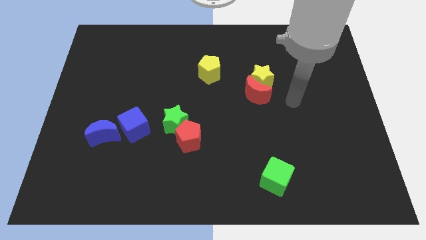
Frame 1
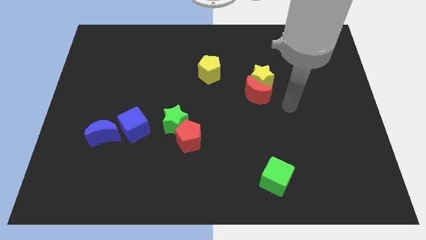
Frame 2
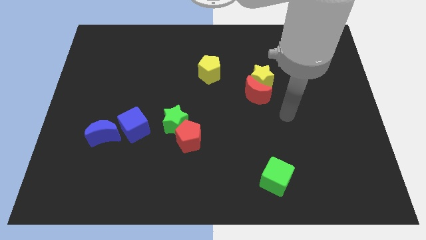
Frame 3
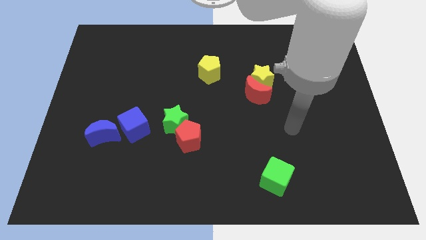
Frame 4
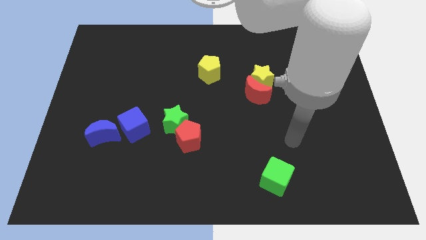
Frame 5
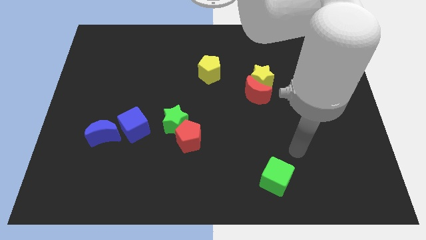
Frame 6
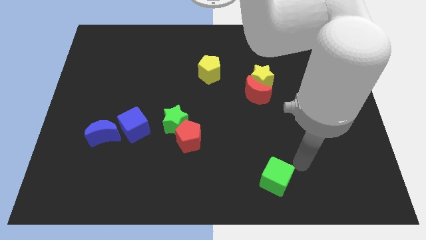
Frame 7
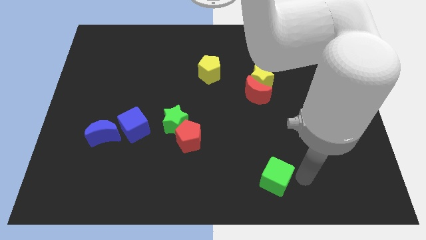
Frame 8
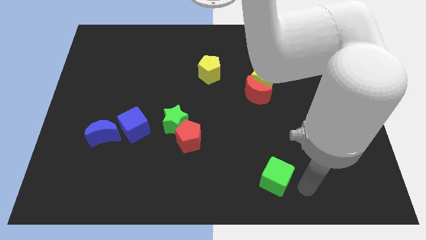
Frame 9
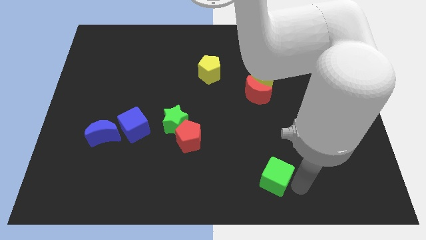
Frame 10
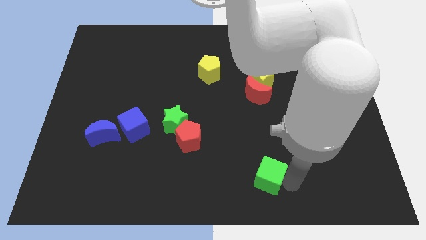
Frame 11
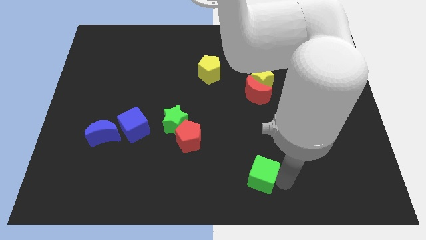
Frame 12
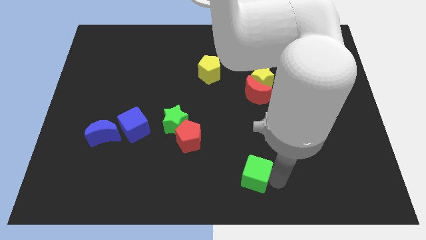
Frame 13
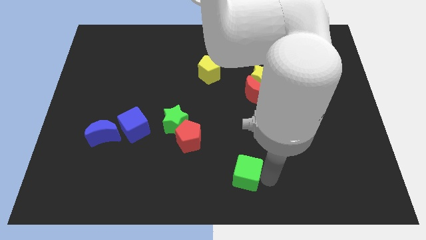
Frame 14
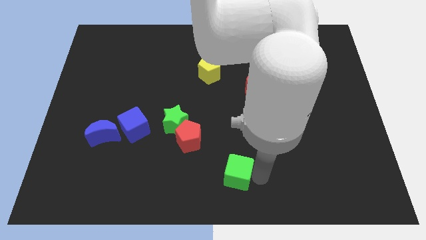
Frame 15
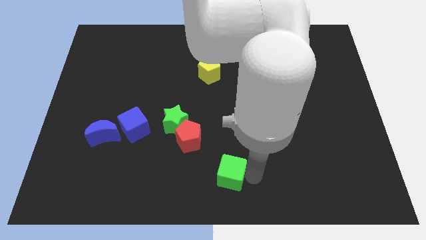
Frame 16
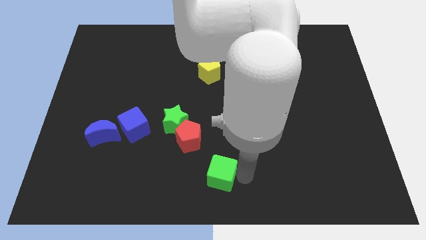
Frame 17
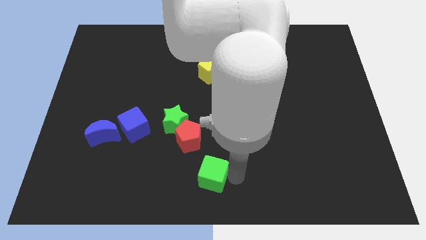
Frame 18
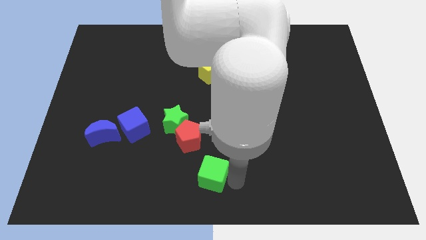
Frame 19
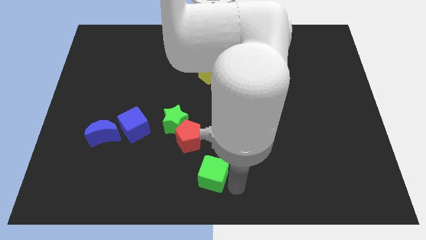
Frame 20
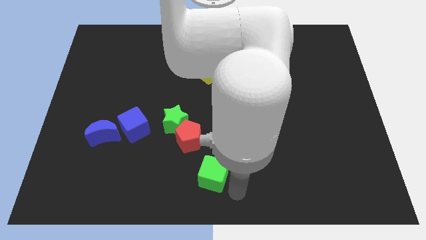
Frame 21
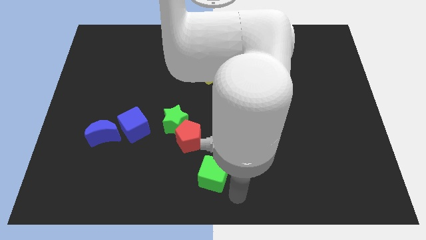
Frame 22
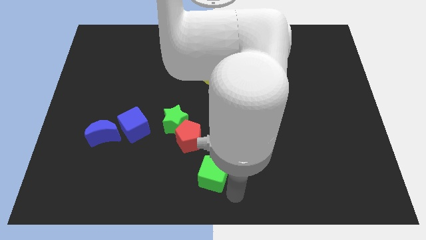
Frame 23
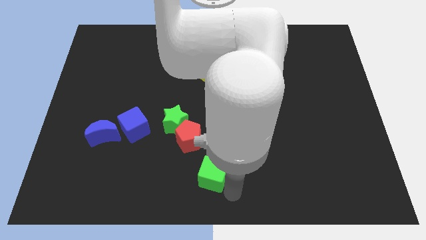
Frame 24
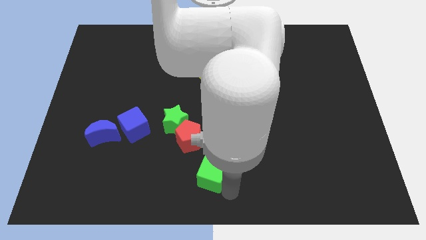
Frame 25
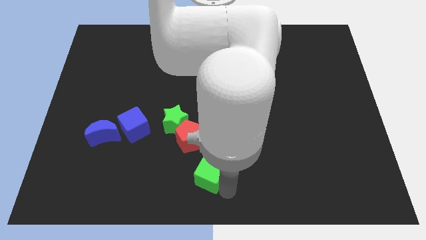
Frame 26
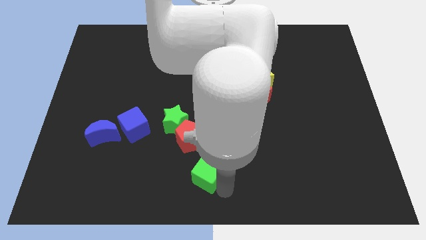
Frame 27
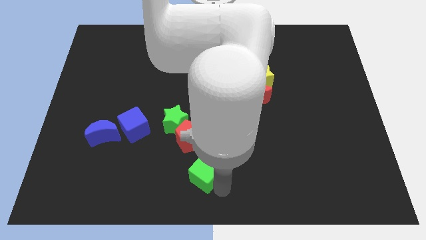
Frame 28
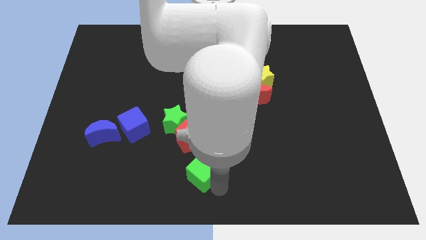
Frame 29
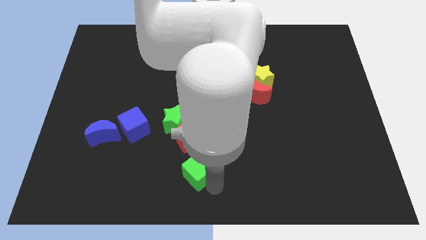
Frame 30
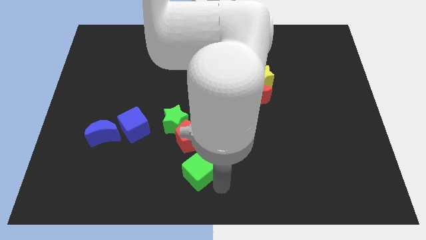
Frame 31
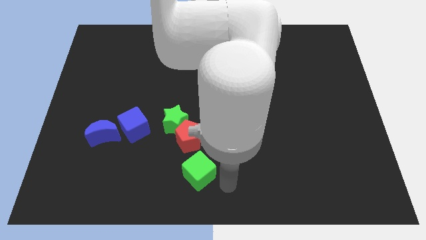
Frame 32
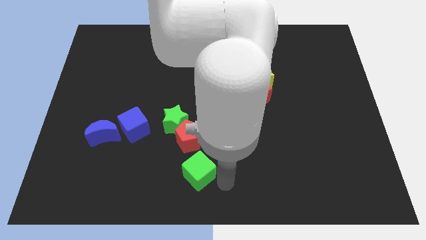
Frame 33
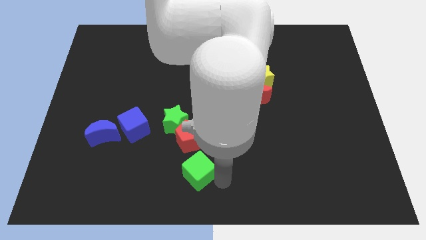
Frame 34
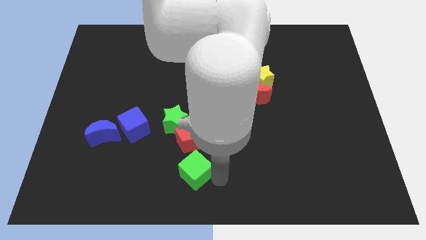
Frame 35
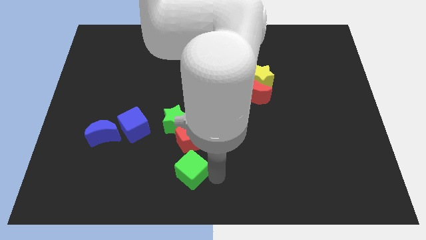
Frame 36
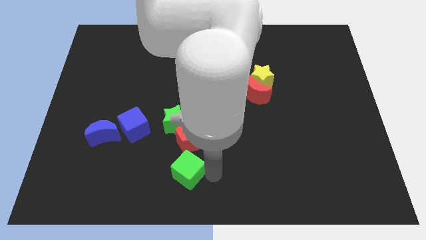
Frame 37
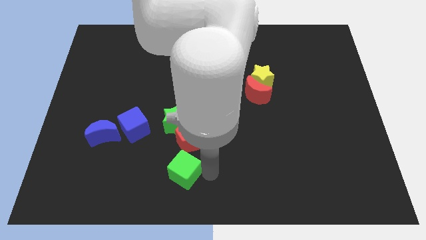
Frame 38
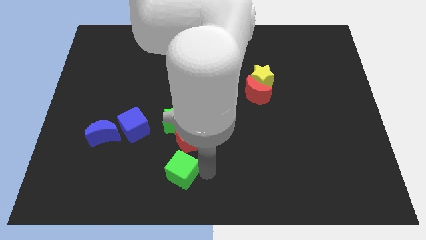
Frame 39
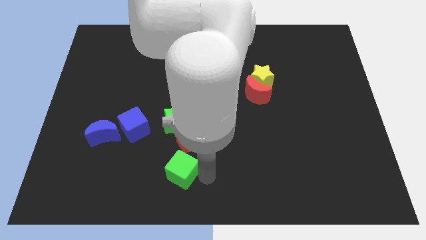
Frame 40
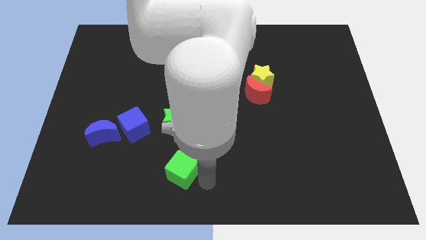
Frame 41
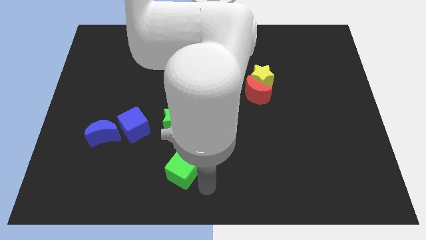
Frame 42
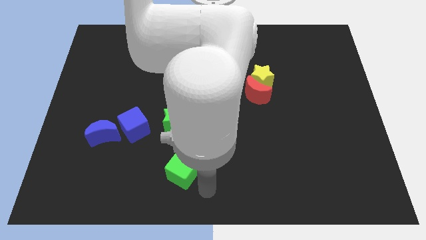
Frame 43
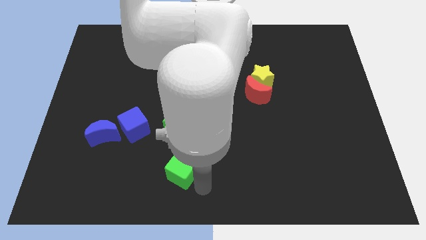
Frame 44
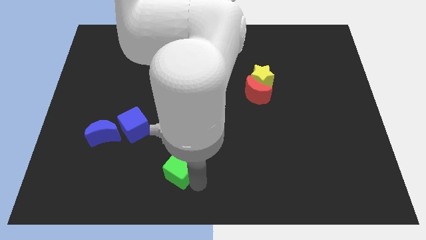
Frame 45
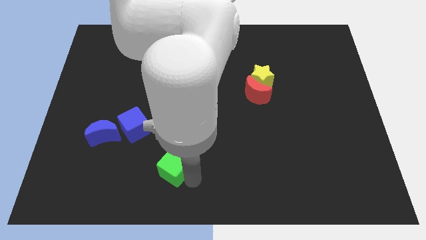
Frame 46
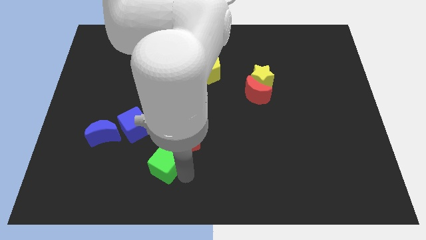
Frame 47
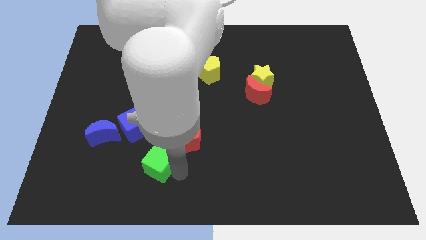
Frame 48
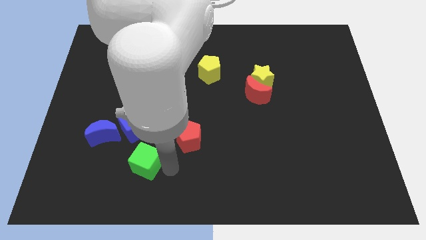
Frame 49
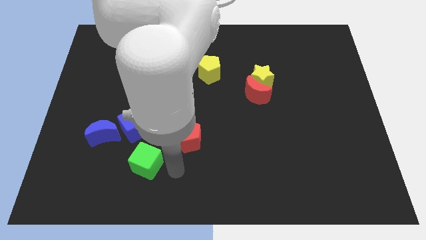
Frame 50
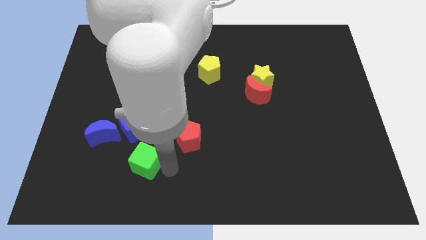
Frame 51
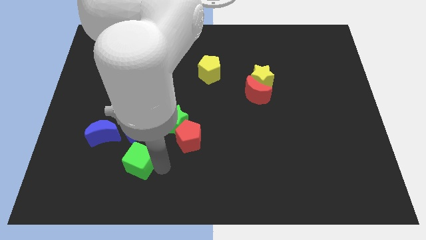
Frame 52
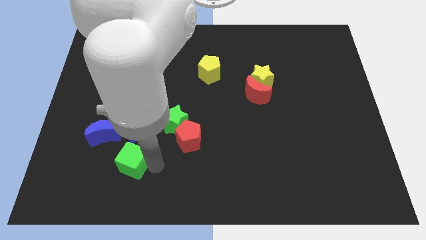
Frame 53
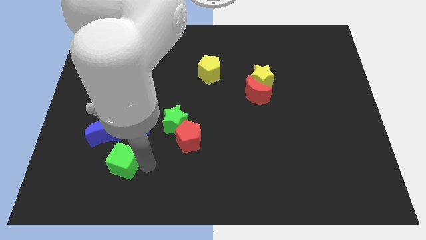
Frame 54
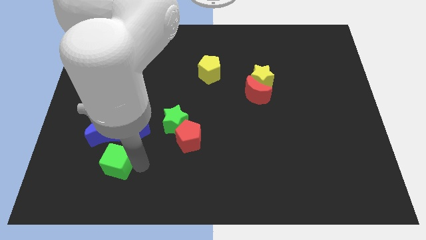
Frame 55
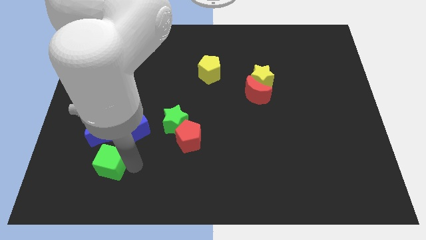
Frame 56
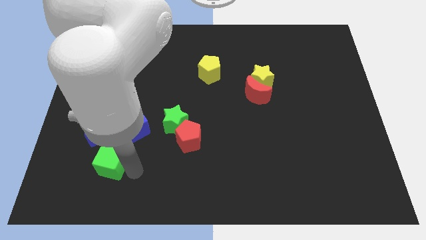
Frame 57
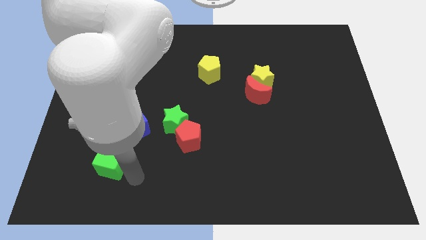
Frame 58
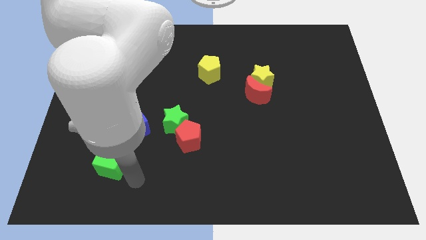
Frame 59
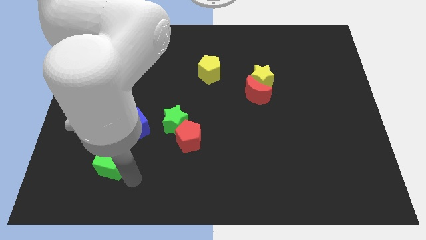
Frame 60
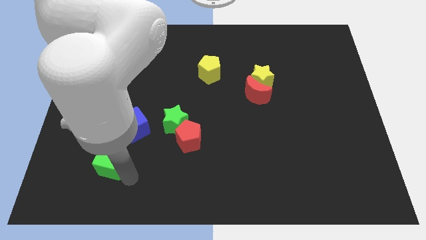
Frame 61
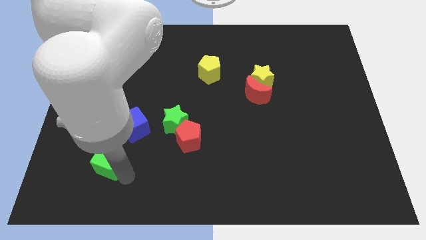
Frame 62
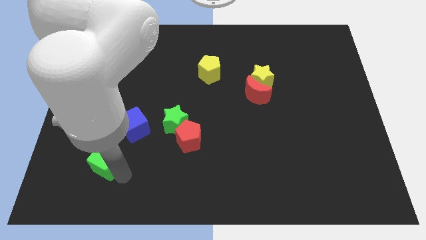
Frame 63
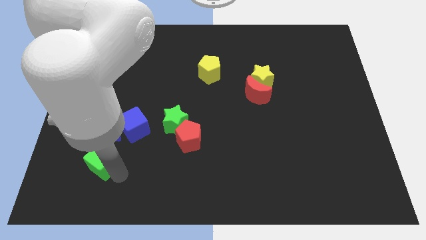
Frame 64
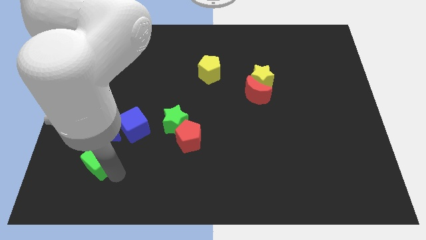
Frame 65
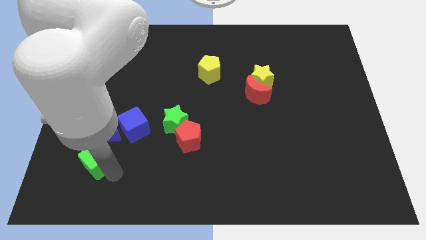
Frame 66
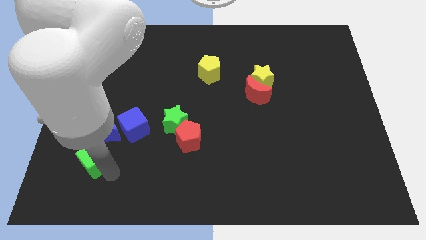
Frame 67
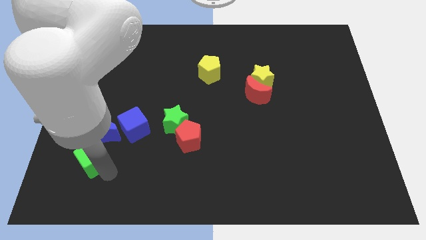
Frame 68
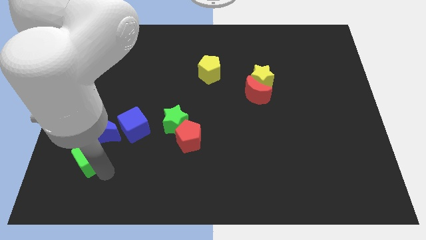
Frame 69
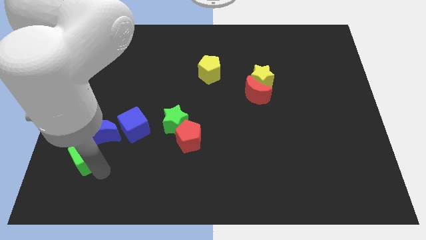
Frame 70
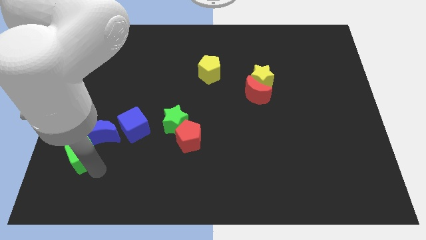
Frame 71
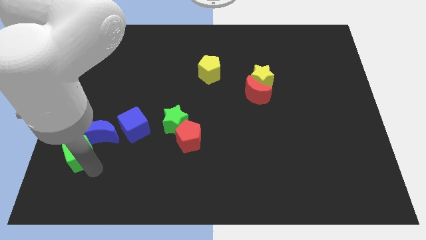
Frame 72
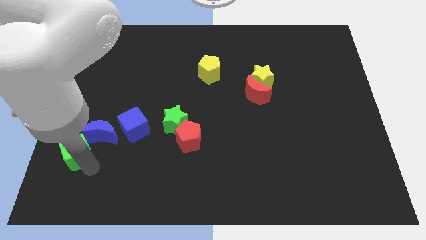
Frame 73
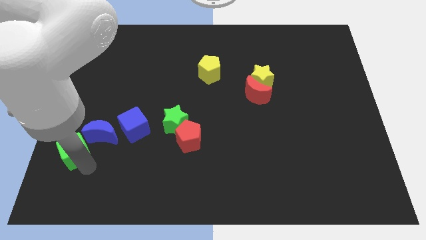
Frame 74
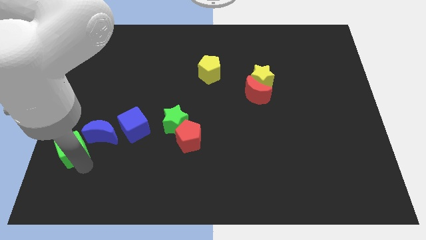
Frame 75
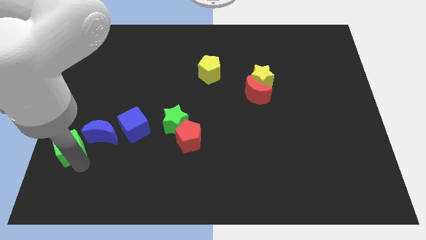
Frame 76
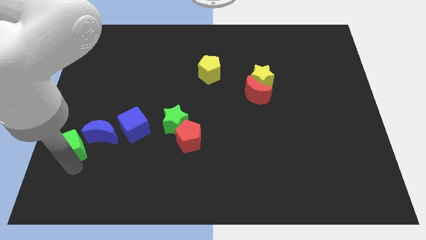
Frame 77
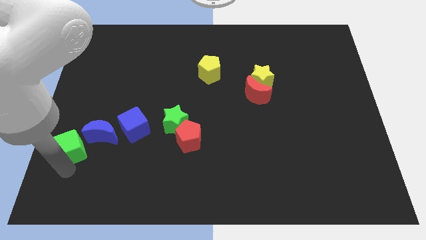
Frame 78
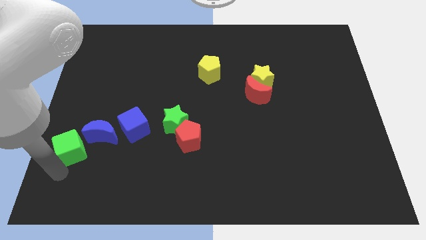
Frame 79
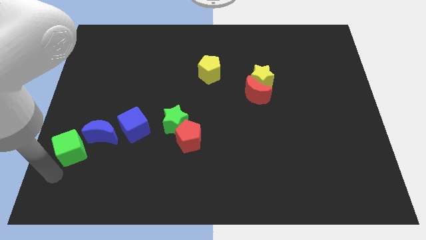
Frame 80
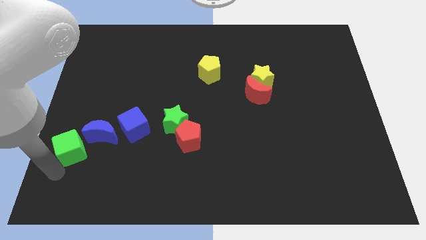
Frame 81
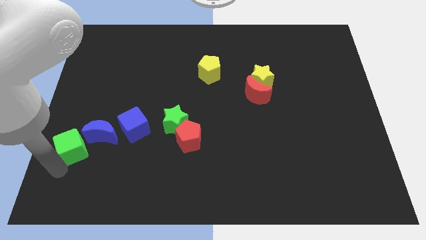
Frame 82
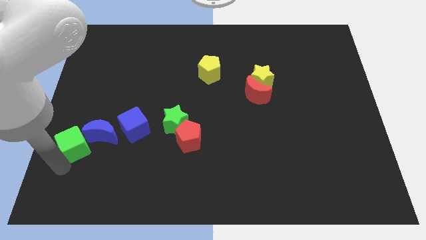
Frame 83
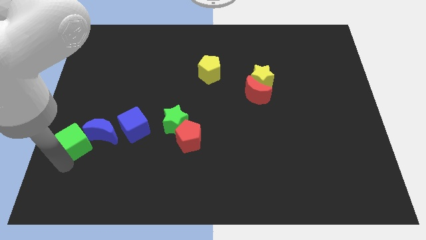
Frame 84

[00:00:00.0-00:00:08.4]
move the green cube to the left of the blue cube
